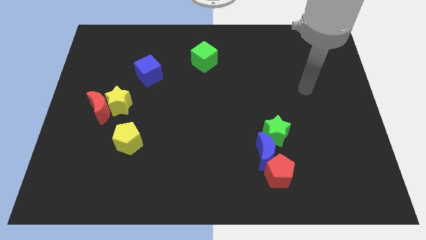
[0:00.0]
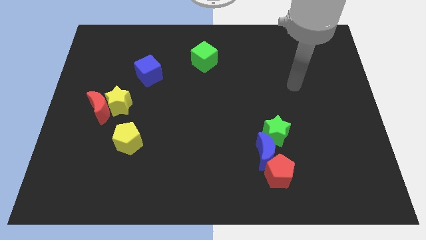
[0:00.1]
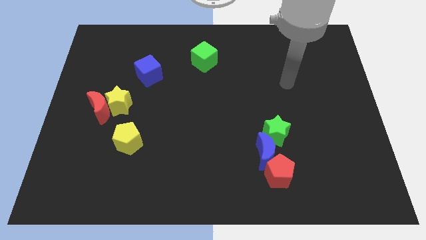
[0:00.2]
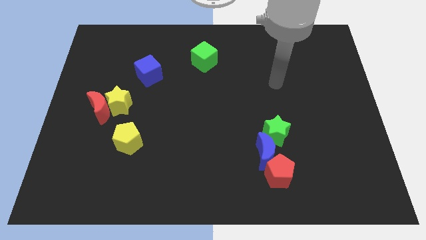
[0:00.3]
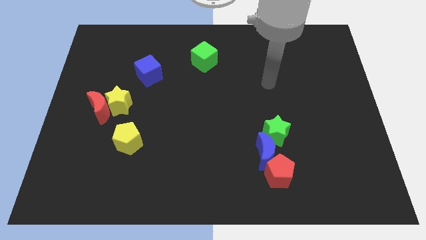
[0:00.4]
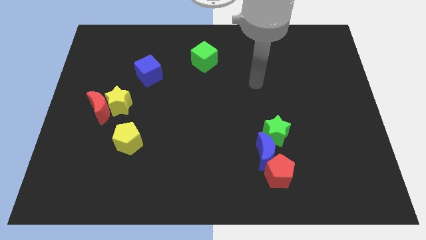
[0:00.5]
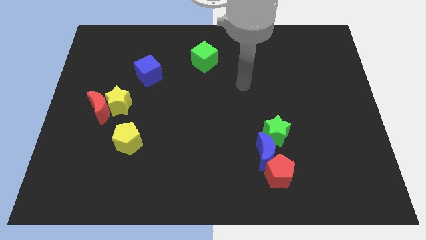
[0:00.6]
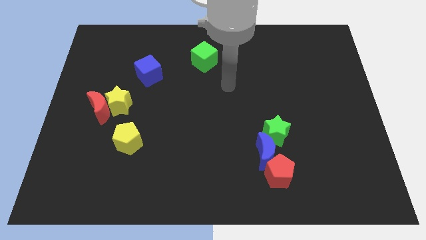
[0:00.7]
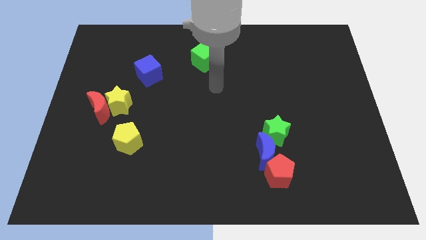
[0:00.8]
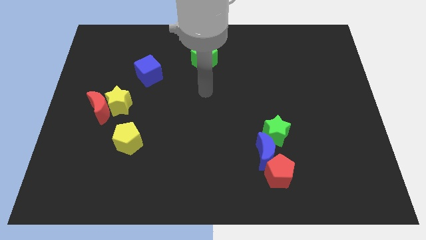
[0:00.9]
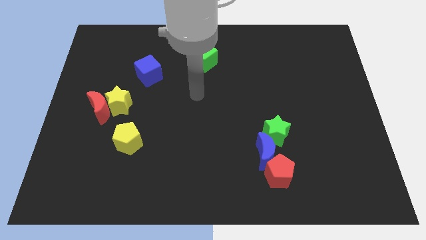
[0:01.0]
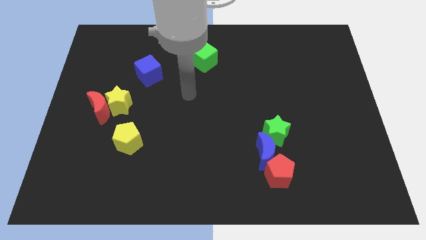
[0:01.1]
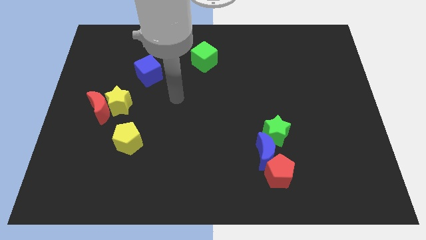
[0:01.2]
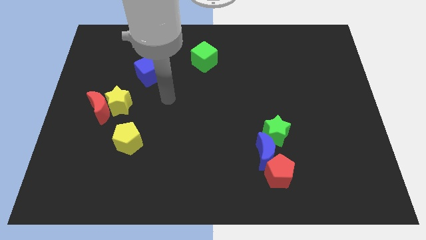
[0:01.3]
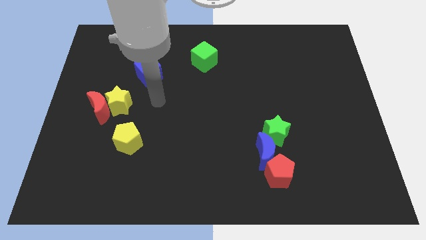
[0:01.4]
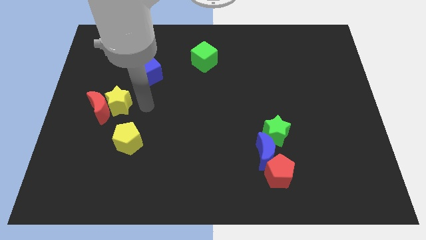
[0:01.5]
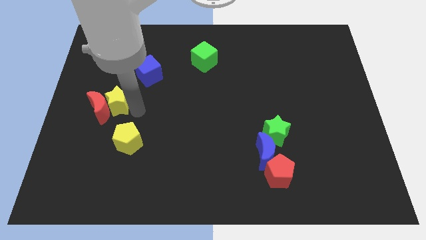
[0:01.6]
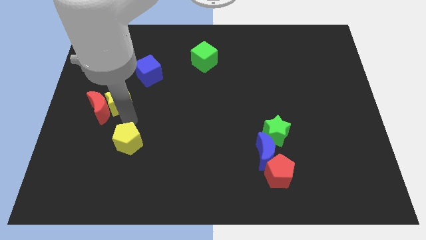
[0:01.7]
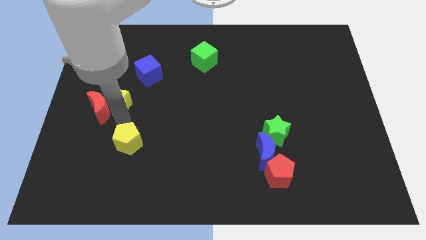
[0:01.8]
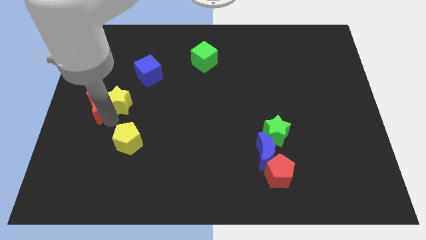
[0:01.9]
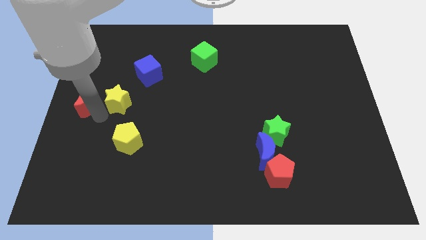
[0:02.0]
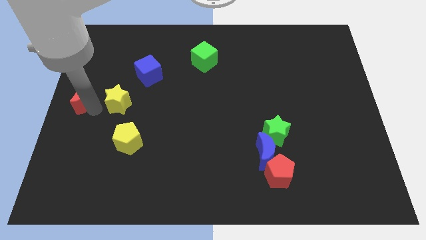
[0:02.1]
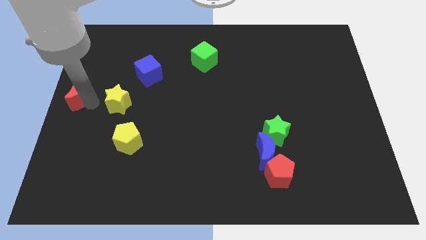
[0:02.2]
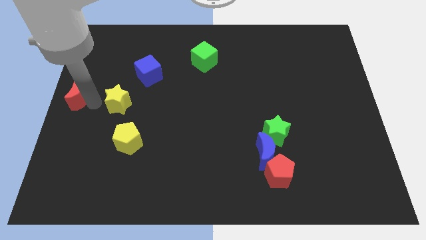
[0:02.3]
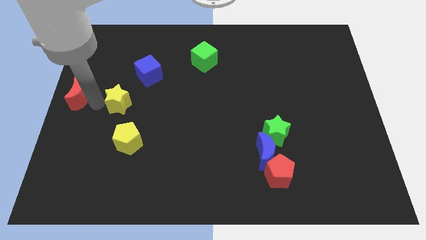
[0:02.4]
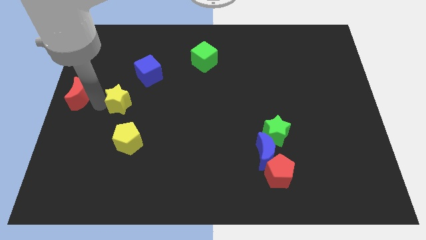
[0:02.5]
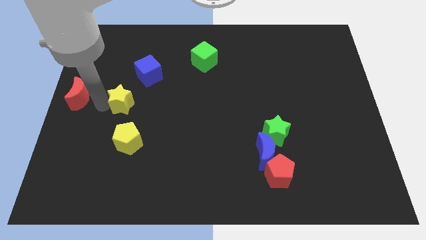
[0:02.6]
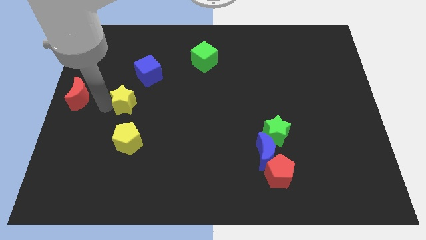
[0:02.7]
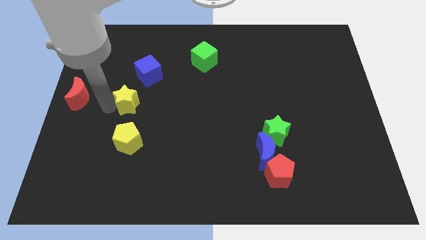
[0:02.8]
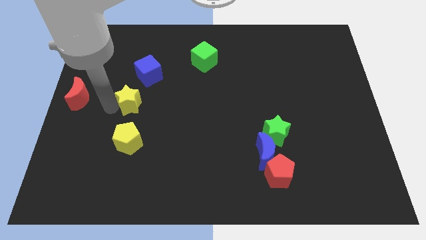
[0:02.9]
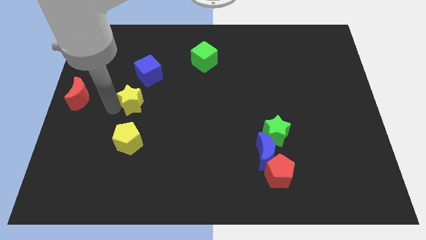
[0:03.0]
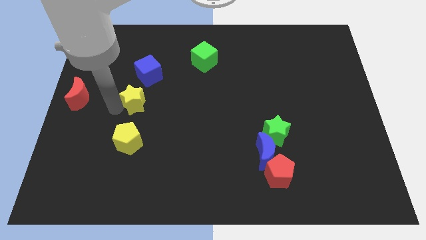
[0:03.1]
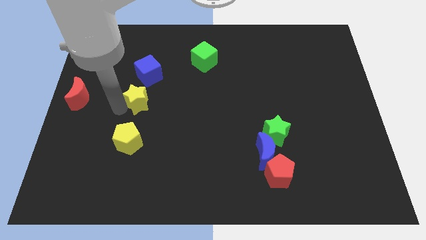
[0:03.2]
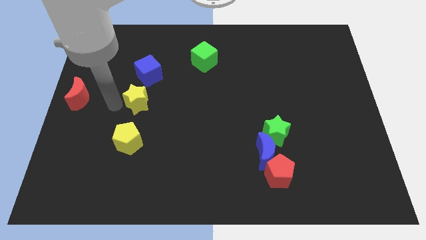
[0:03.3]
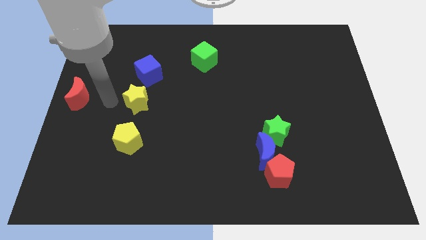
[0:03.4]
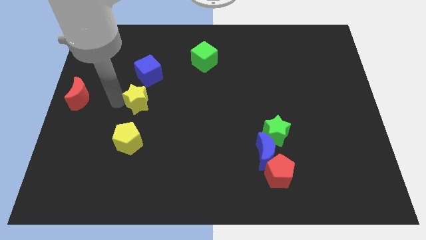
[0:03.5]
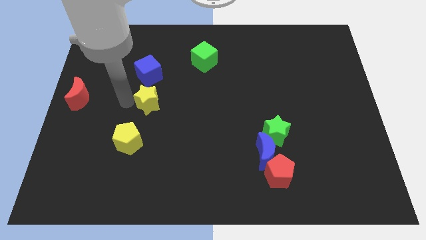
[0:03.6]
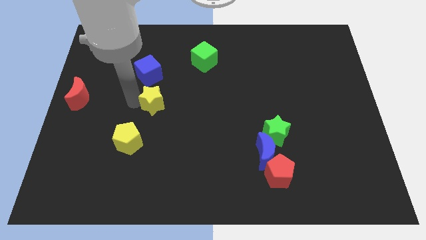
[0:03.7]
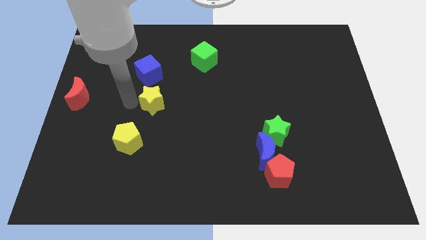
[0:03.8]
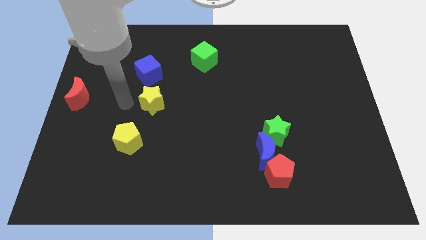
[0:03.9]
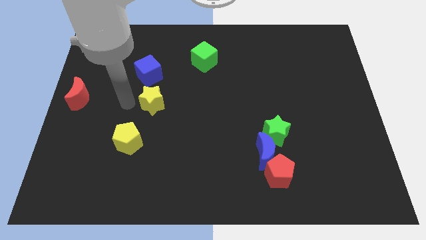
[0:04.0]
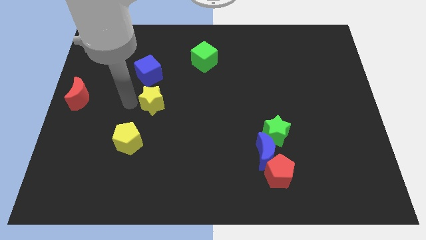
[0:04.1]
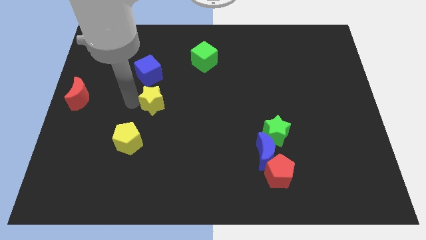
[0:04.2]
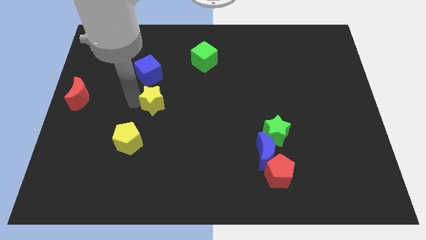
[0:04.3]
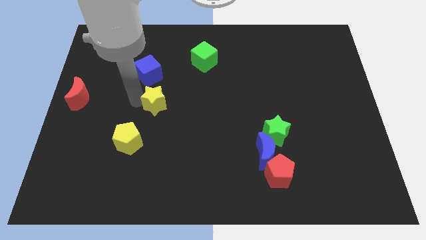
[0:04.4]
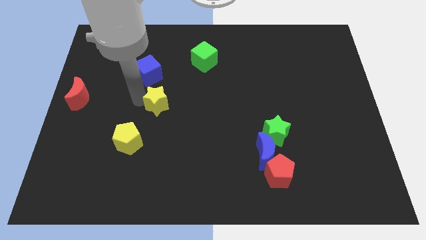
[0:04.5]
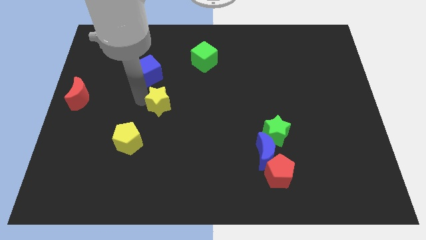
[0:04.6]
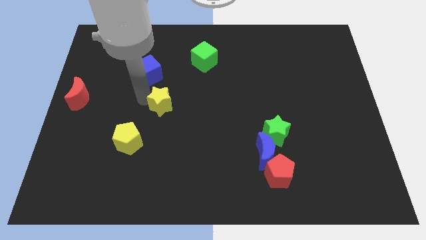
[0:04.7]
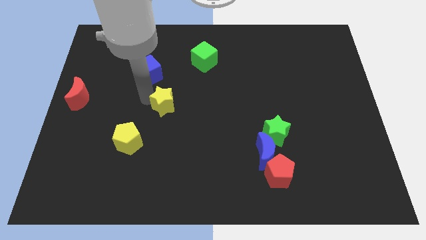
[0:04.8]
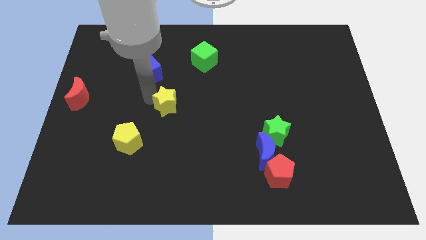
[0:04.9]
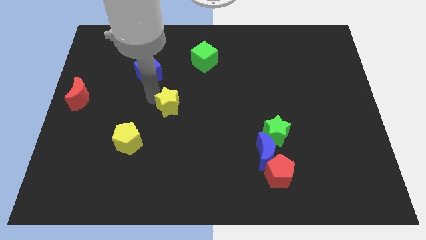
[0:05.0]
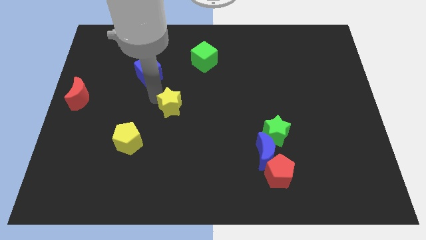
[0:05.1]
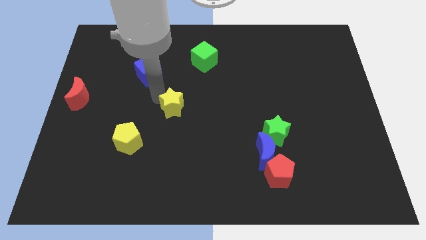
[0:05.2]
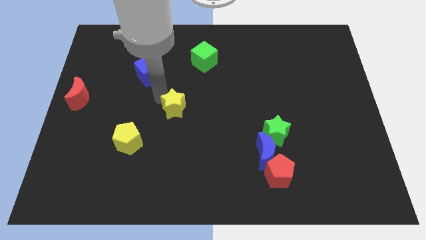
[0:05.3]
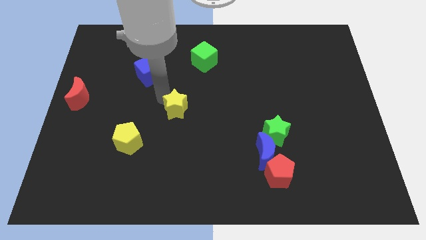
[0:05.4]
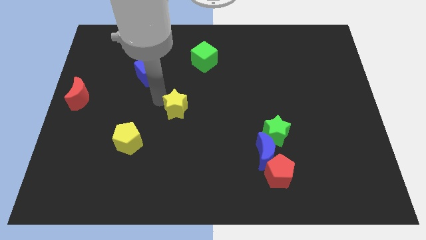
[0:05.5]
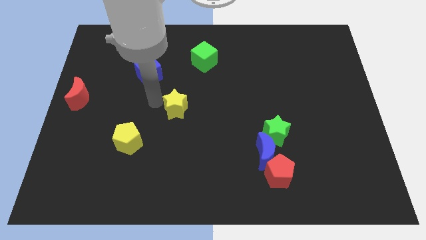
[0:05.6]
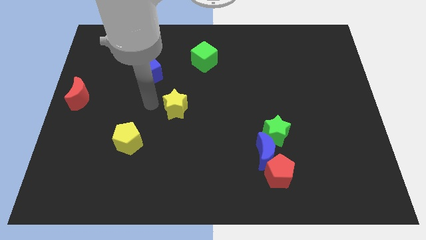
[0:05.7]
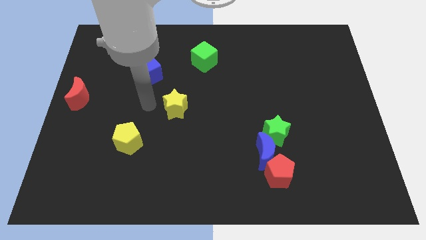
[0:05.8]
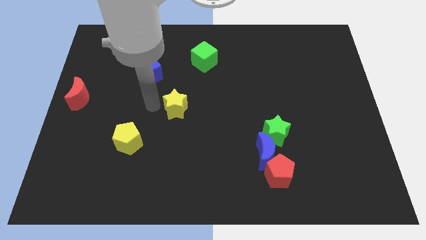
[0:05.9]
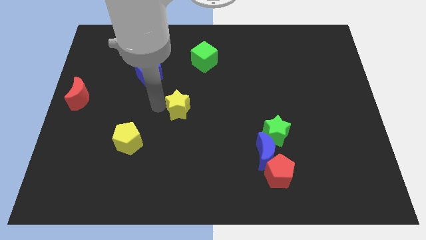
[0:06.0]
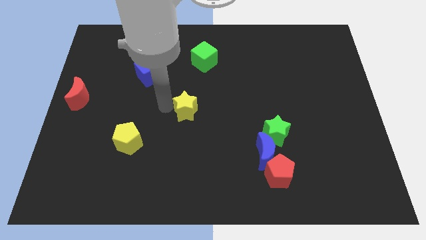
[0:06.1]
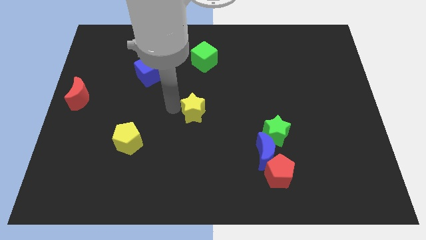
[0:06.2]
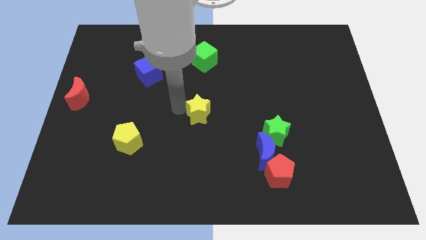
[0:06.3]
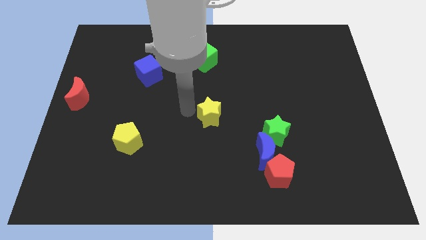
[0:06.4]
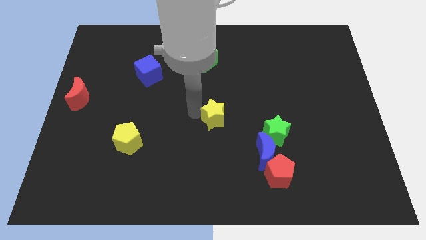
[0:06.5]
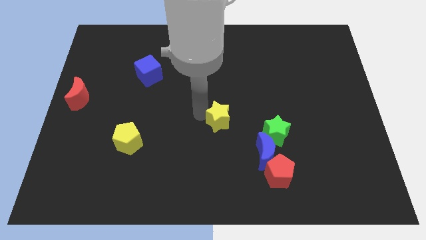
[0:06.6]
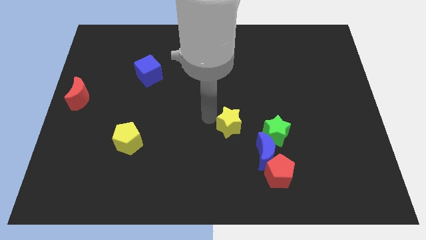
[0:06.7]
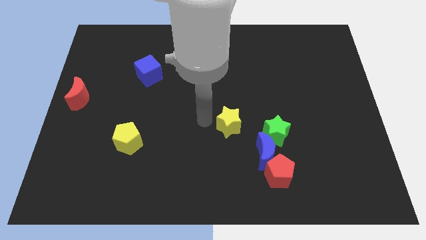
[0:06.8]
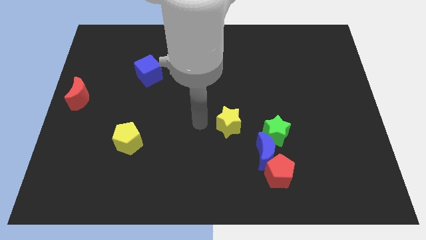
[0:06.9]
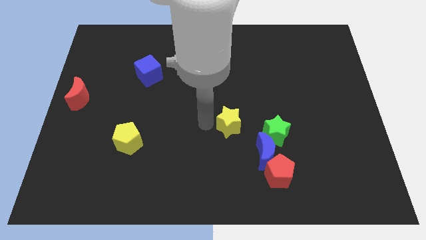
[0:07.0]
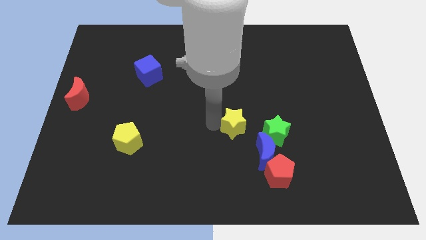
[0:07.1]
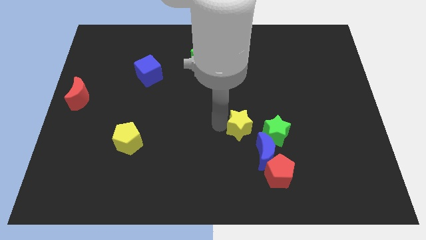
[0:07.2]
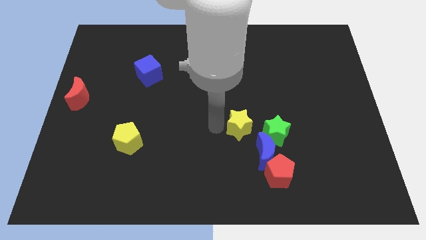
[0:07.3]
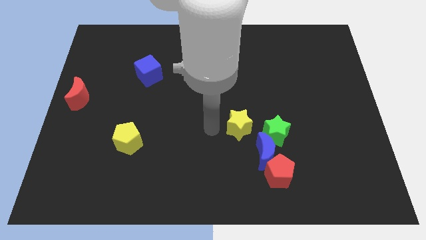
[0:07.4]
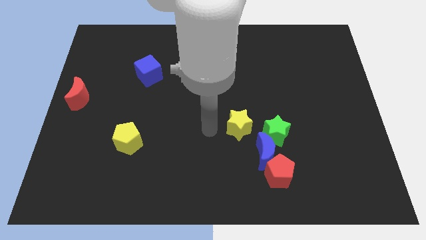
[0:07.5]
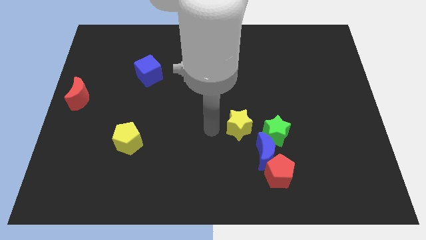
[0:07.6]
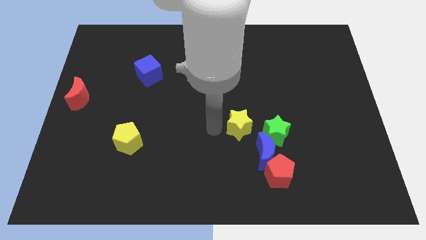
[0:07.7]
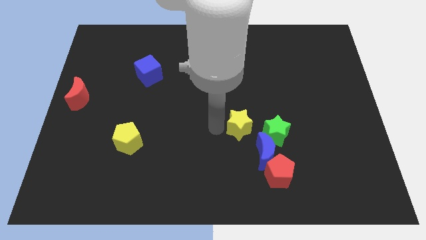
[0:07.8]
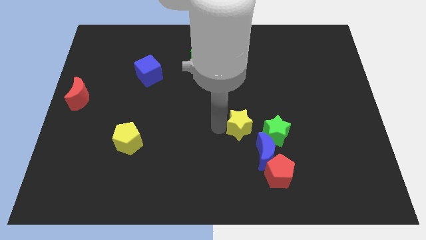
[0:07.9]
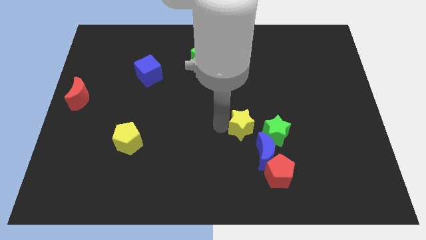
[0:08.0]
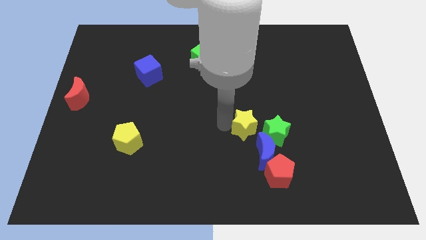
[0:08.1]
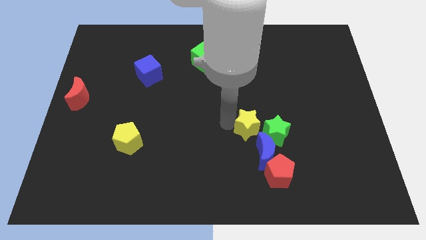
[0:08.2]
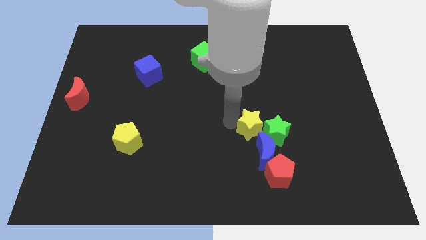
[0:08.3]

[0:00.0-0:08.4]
slide the yellow star towards the green star
